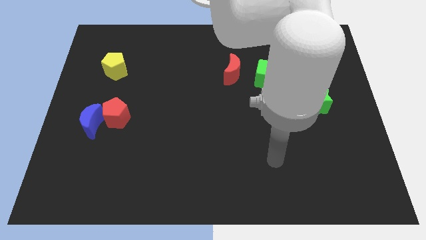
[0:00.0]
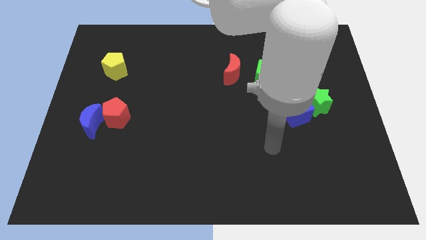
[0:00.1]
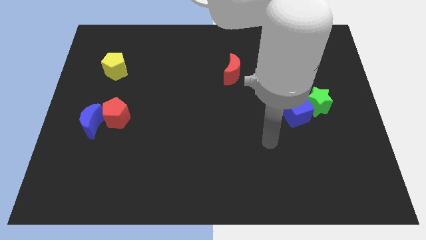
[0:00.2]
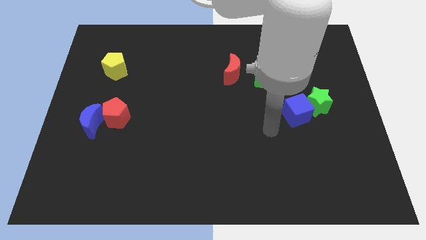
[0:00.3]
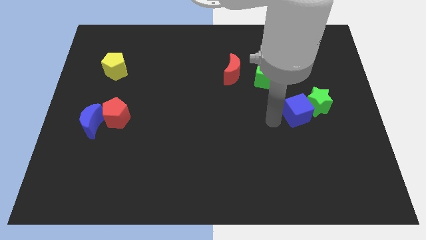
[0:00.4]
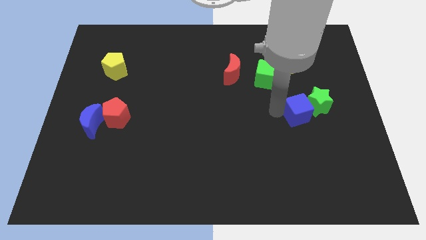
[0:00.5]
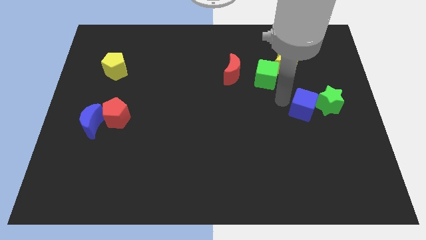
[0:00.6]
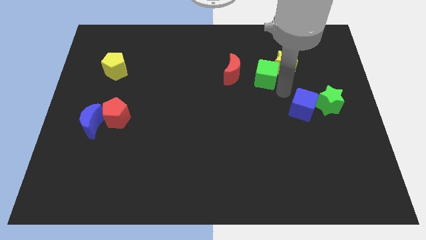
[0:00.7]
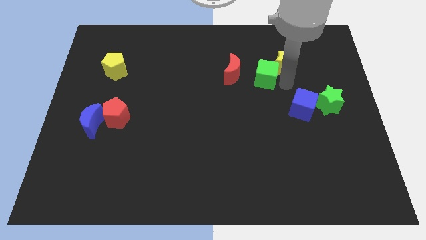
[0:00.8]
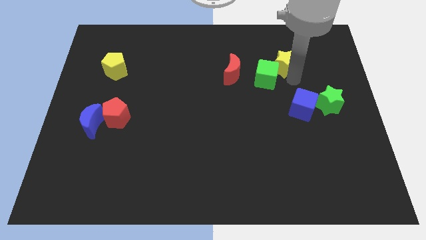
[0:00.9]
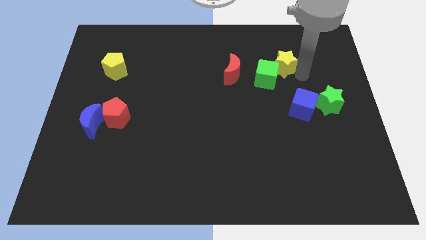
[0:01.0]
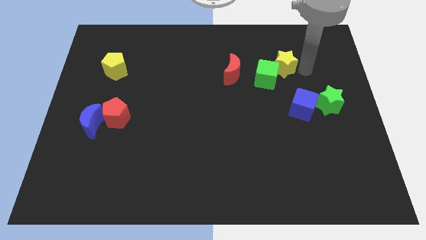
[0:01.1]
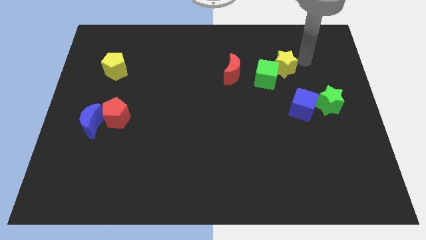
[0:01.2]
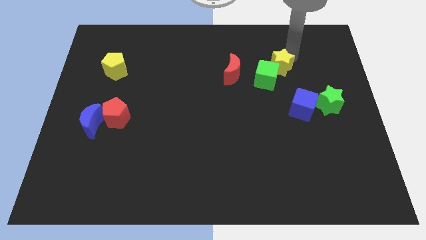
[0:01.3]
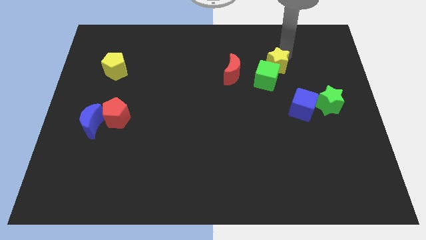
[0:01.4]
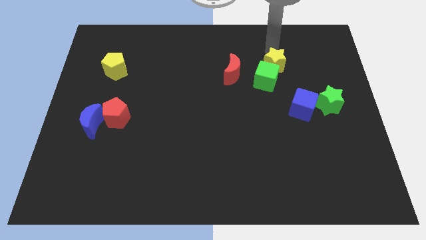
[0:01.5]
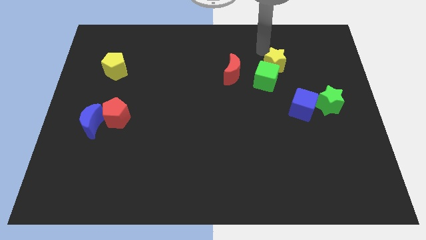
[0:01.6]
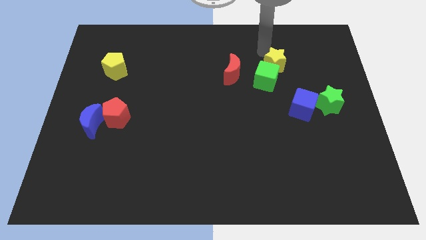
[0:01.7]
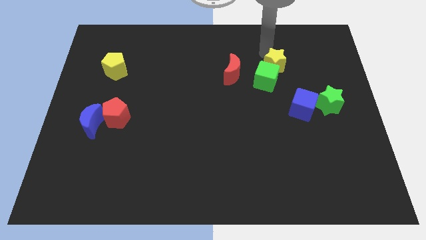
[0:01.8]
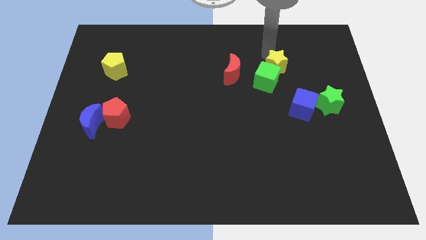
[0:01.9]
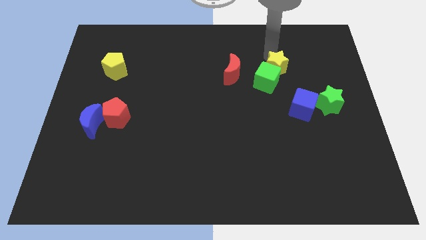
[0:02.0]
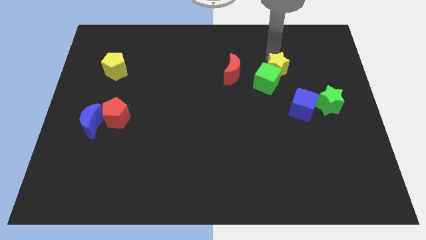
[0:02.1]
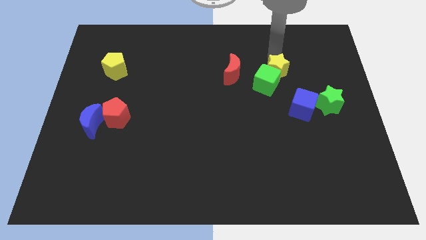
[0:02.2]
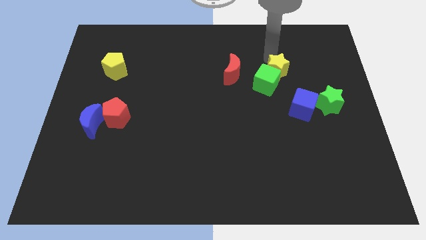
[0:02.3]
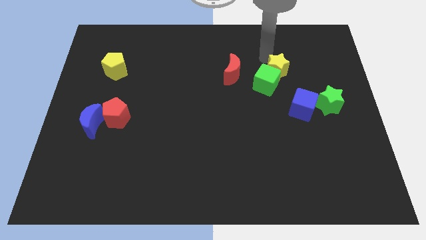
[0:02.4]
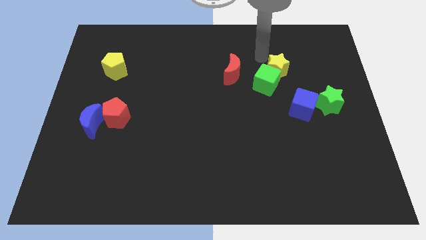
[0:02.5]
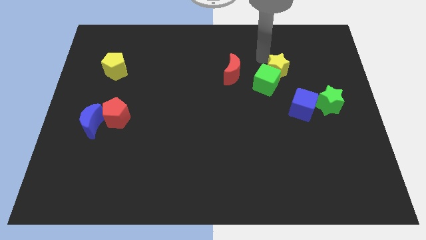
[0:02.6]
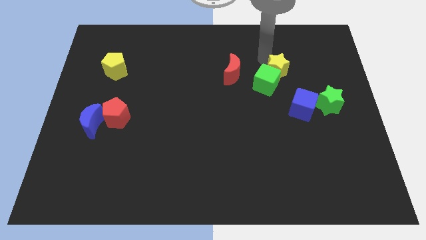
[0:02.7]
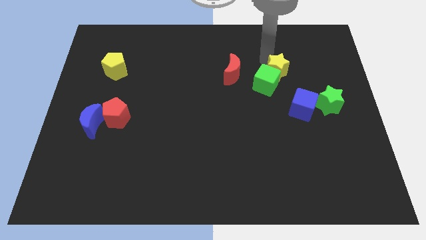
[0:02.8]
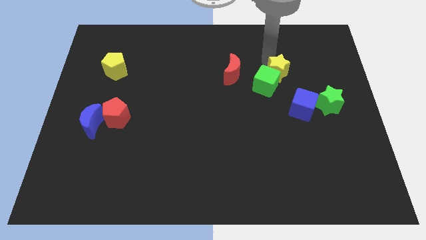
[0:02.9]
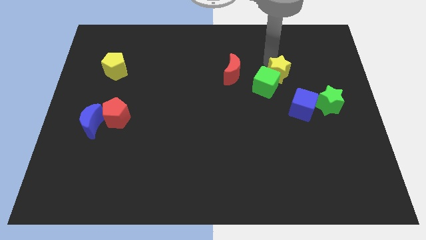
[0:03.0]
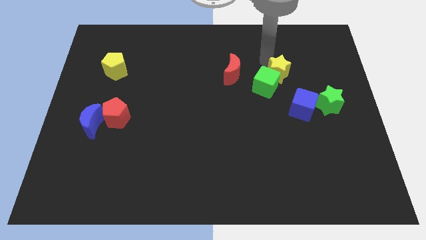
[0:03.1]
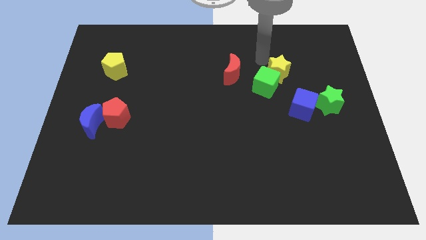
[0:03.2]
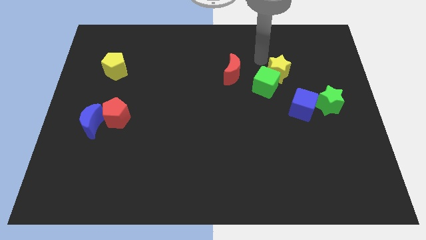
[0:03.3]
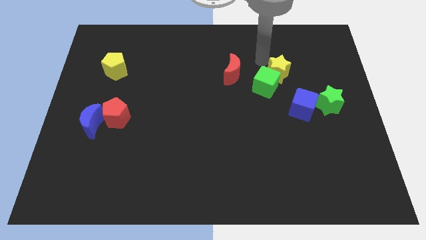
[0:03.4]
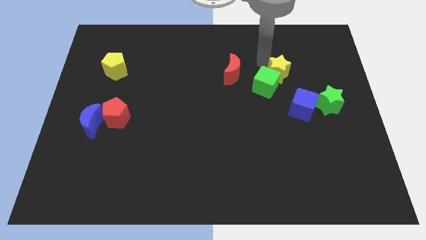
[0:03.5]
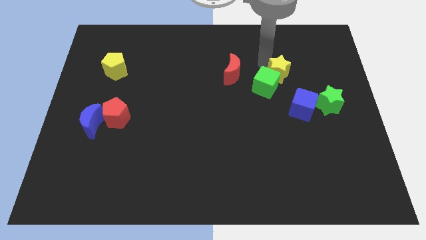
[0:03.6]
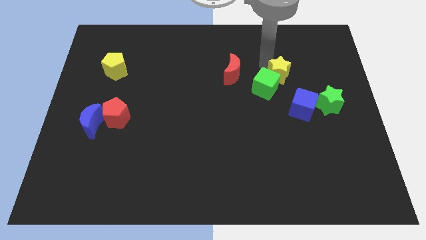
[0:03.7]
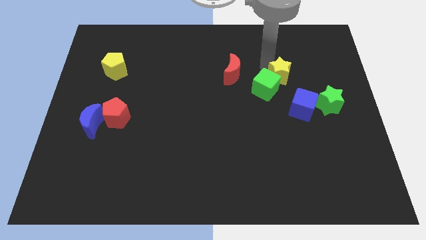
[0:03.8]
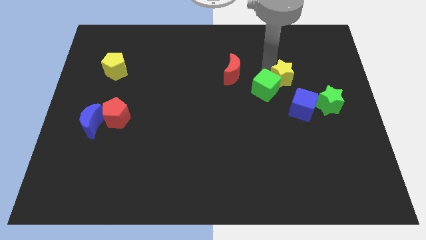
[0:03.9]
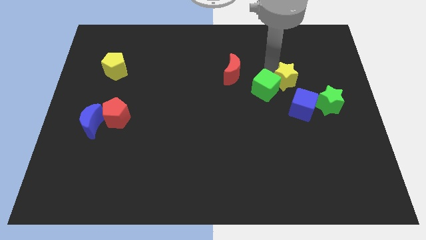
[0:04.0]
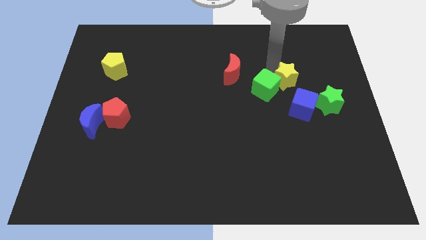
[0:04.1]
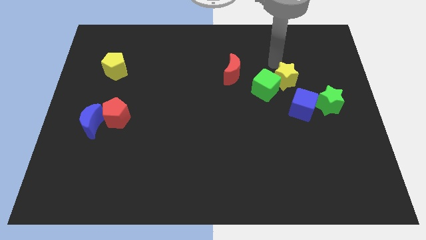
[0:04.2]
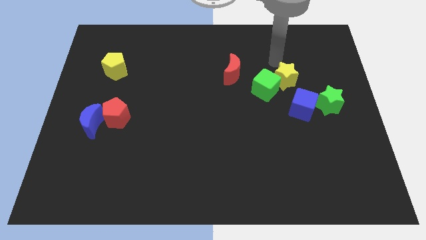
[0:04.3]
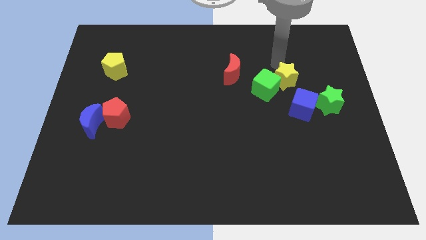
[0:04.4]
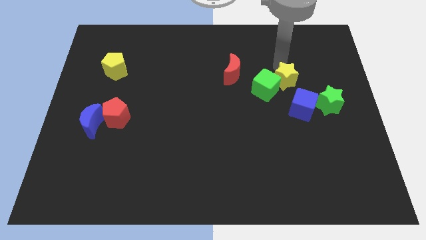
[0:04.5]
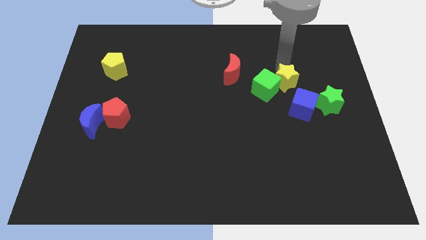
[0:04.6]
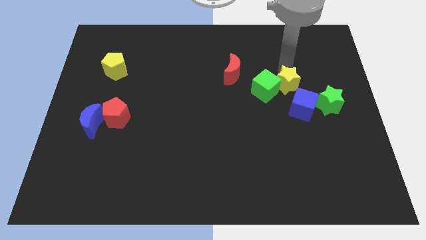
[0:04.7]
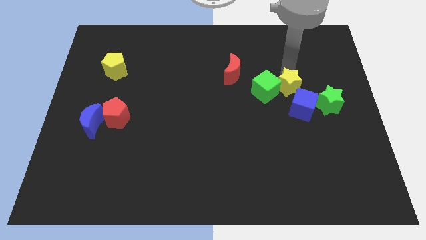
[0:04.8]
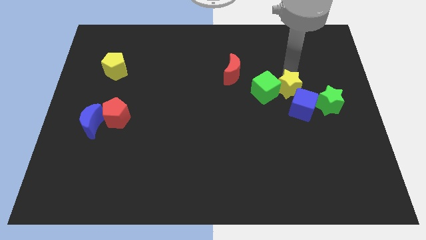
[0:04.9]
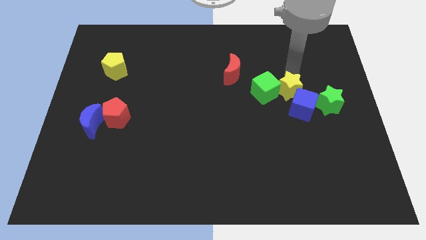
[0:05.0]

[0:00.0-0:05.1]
put the yellow star close to the blue cube

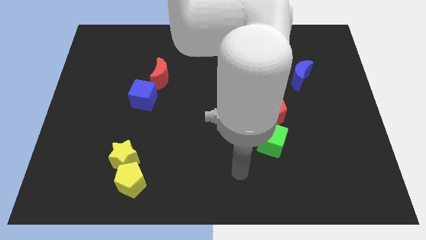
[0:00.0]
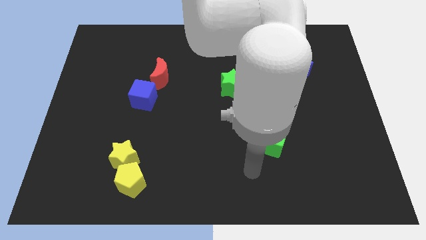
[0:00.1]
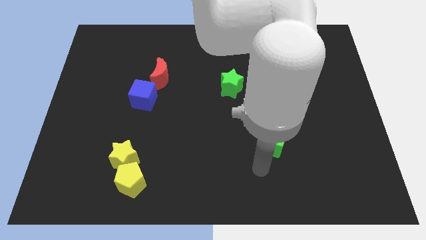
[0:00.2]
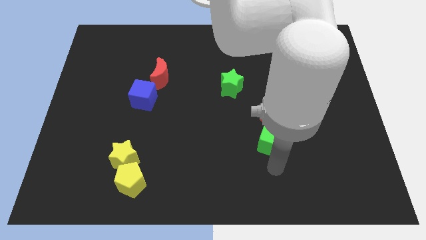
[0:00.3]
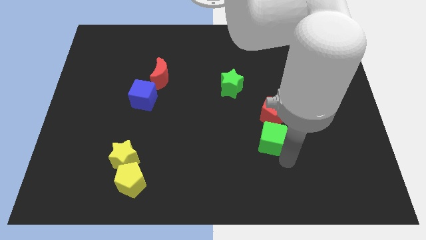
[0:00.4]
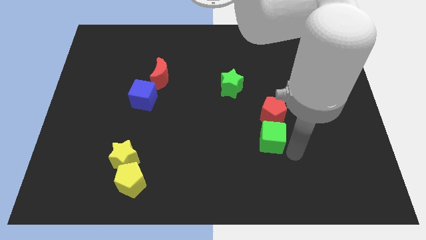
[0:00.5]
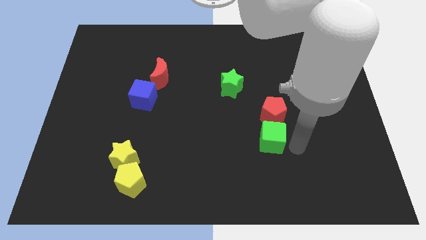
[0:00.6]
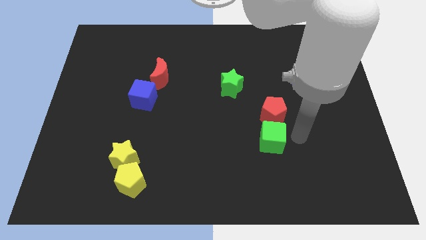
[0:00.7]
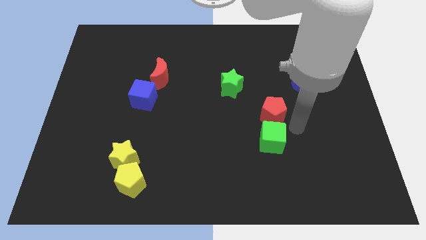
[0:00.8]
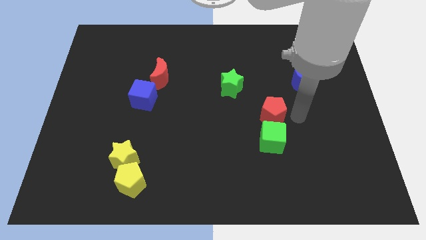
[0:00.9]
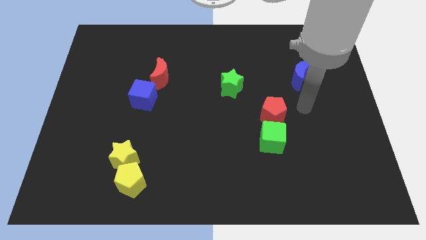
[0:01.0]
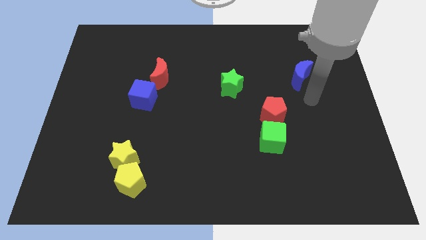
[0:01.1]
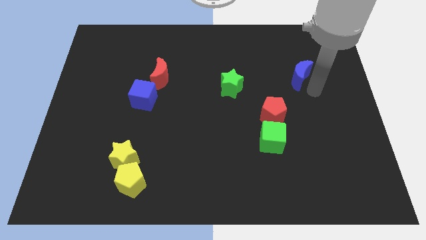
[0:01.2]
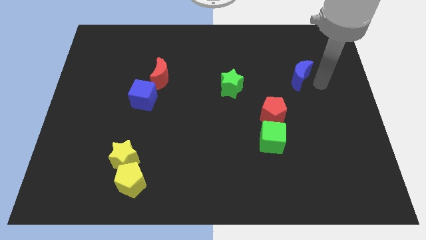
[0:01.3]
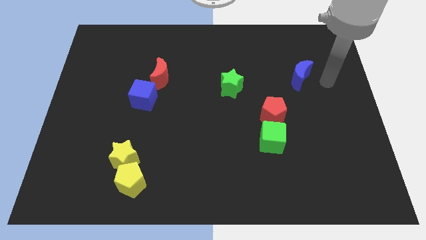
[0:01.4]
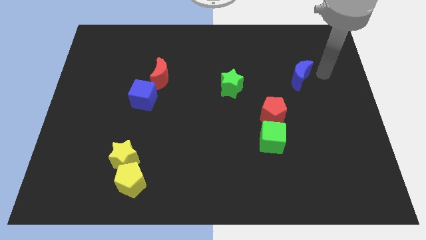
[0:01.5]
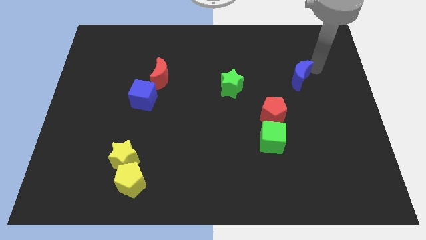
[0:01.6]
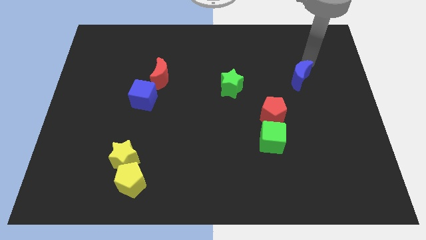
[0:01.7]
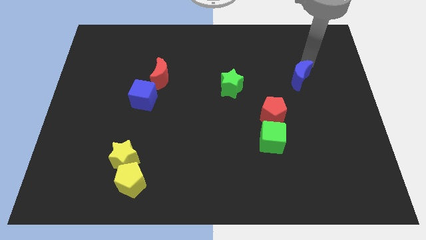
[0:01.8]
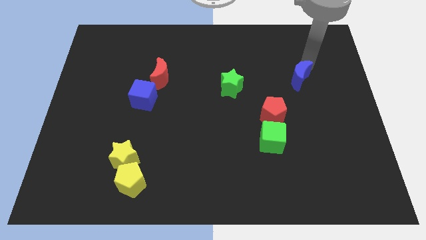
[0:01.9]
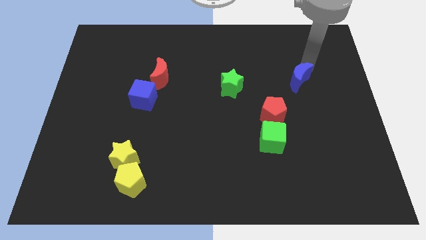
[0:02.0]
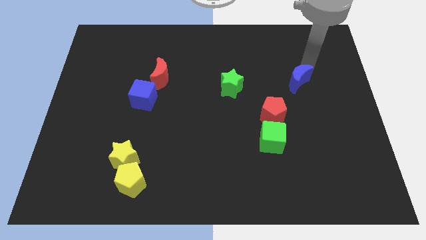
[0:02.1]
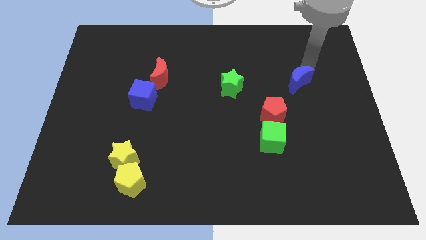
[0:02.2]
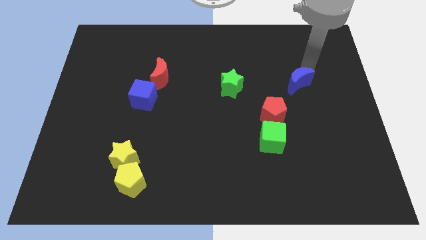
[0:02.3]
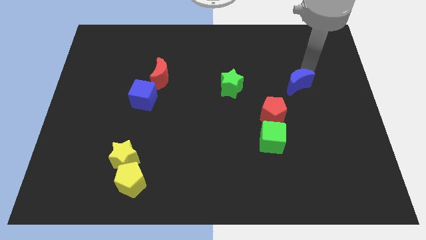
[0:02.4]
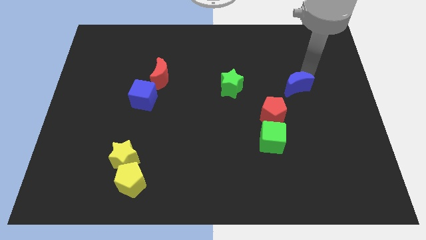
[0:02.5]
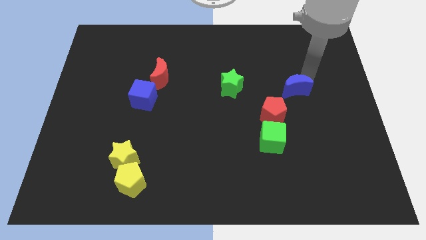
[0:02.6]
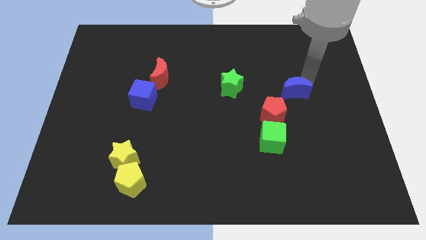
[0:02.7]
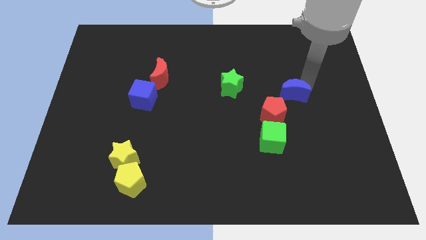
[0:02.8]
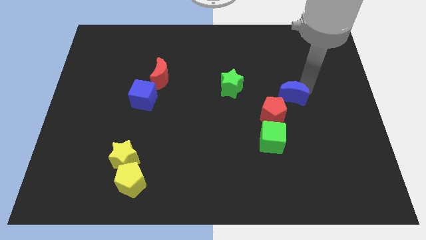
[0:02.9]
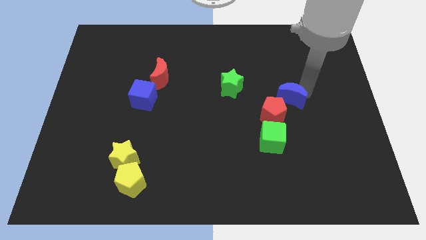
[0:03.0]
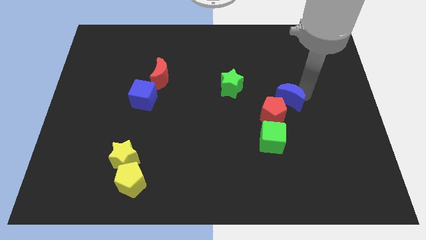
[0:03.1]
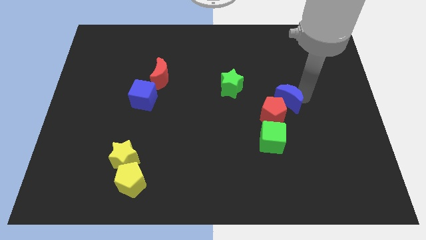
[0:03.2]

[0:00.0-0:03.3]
push the blue moon towards the red pentagon
